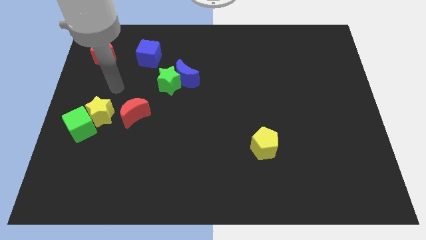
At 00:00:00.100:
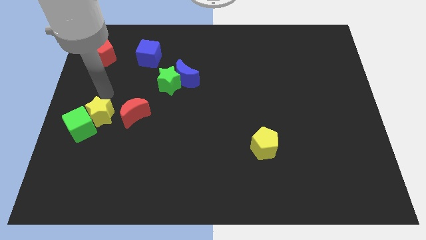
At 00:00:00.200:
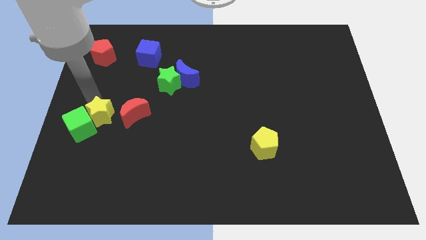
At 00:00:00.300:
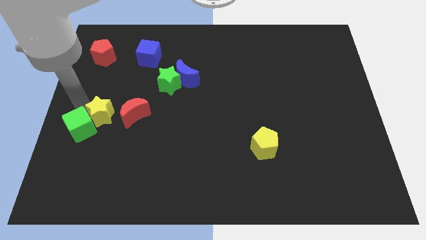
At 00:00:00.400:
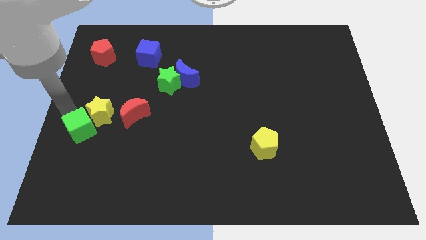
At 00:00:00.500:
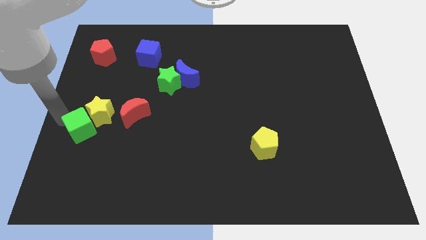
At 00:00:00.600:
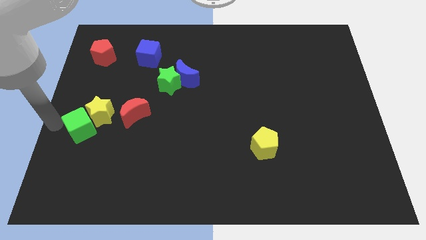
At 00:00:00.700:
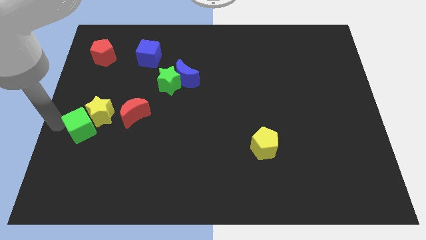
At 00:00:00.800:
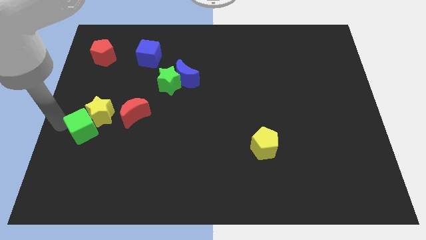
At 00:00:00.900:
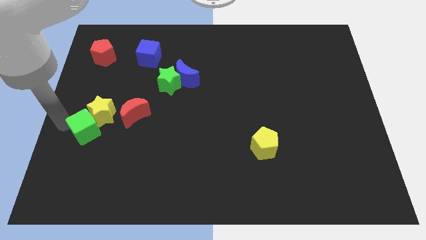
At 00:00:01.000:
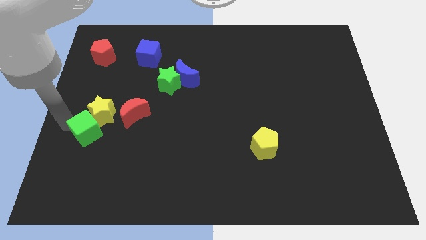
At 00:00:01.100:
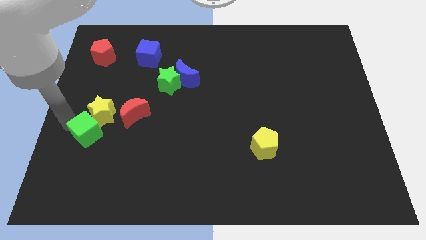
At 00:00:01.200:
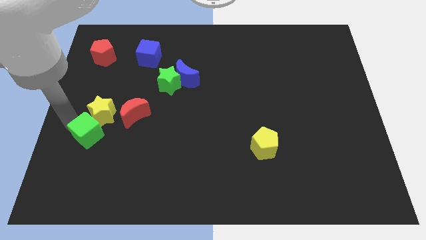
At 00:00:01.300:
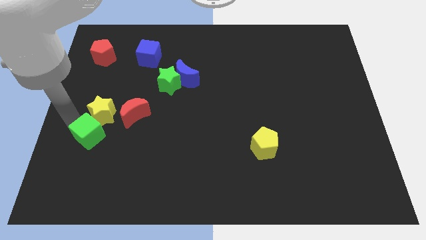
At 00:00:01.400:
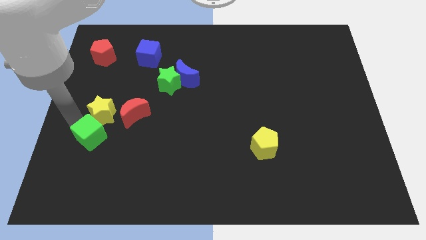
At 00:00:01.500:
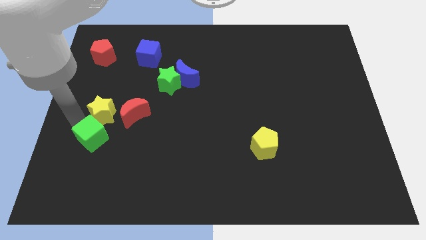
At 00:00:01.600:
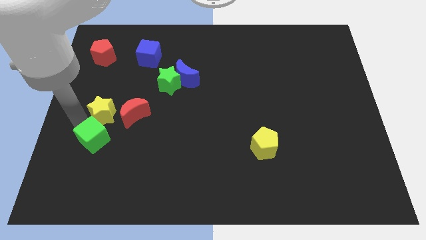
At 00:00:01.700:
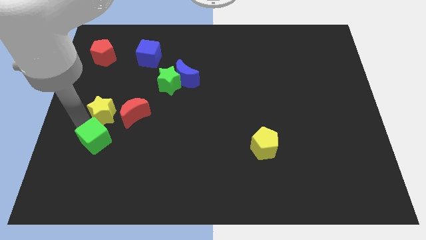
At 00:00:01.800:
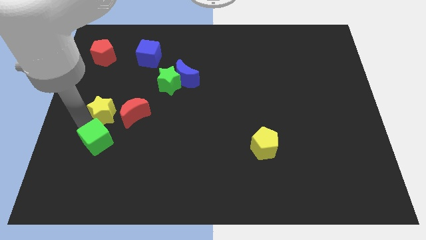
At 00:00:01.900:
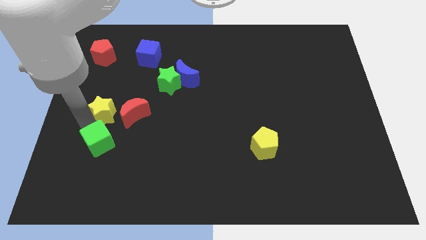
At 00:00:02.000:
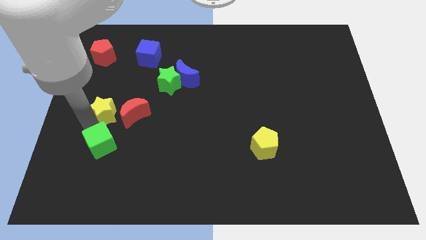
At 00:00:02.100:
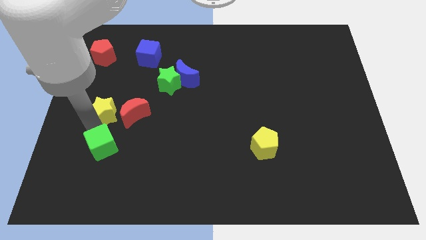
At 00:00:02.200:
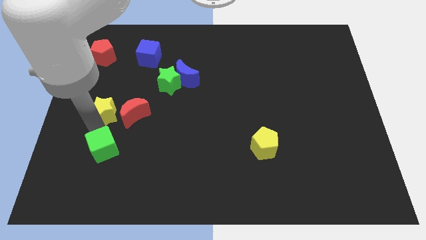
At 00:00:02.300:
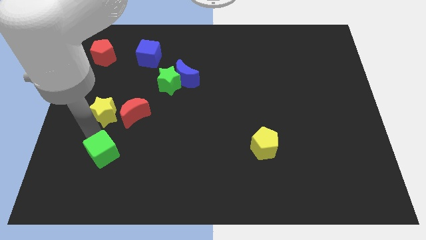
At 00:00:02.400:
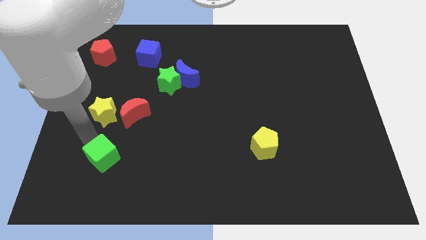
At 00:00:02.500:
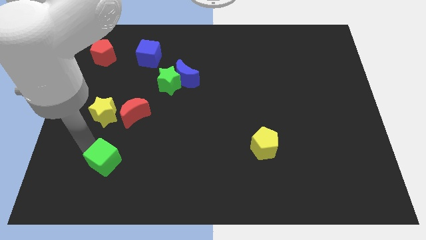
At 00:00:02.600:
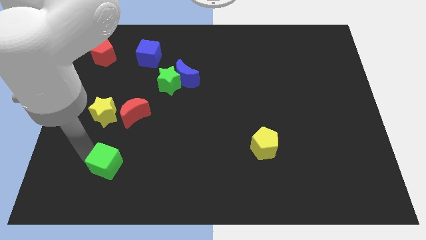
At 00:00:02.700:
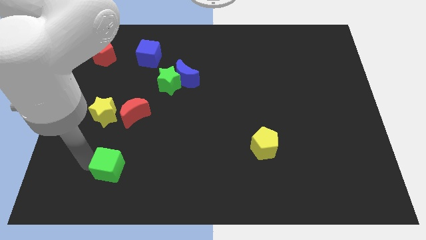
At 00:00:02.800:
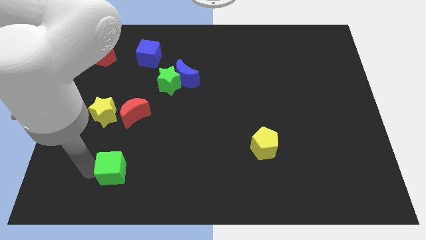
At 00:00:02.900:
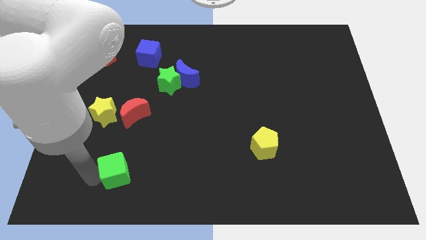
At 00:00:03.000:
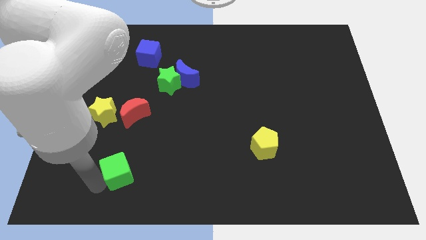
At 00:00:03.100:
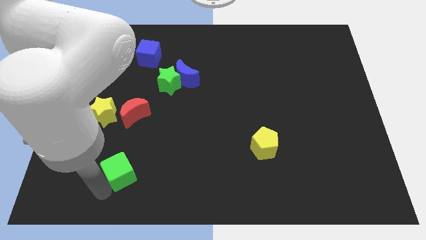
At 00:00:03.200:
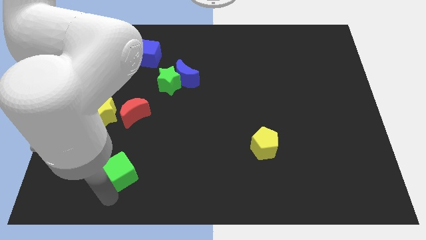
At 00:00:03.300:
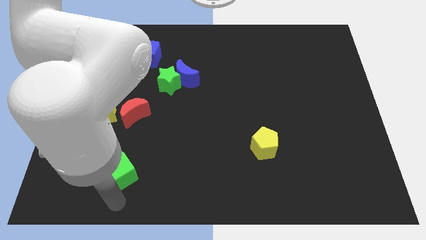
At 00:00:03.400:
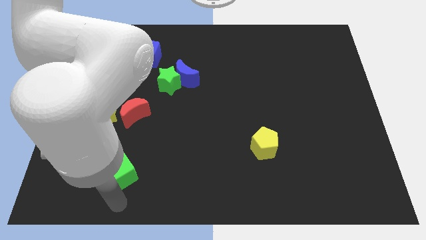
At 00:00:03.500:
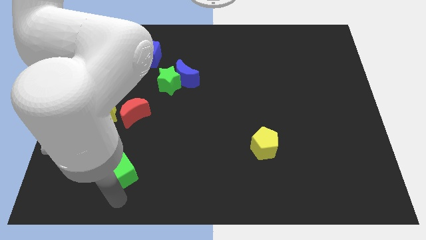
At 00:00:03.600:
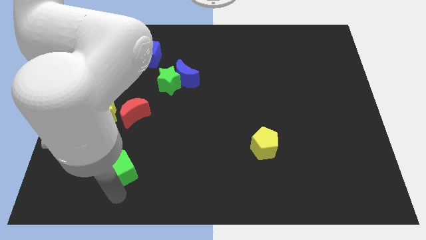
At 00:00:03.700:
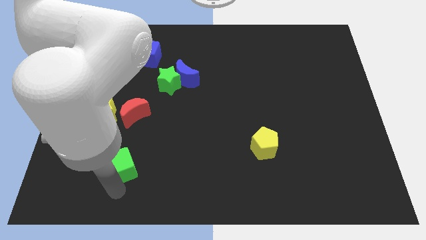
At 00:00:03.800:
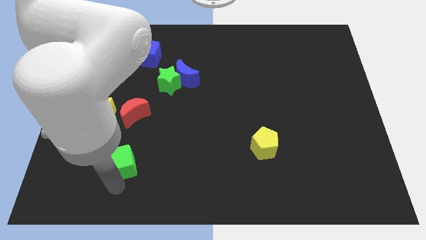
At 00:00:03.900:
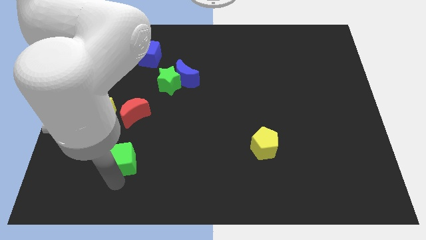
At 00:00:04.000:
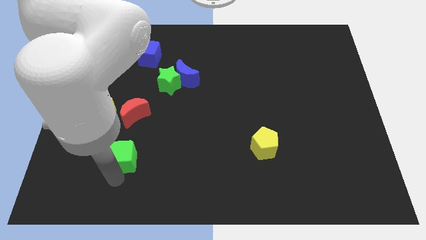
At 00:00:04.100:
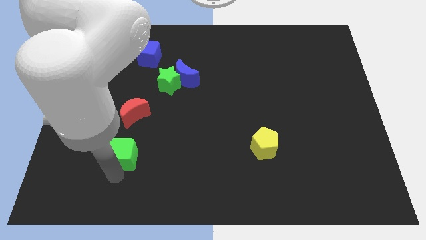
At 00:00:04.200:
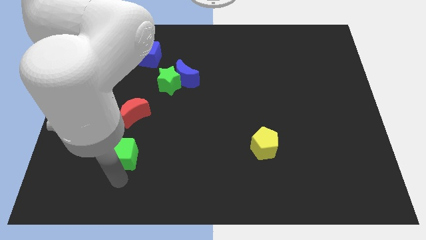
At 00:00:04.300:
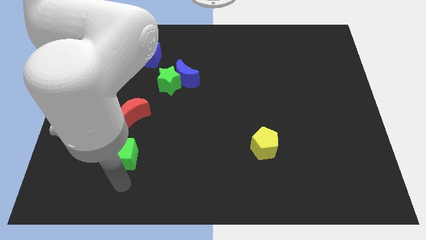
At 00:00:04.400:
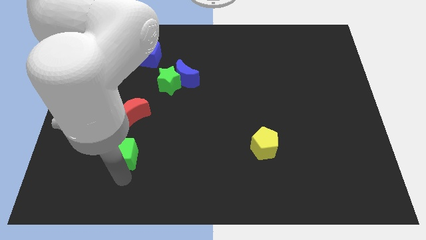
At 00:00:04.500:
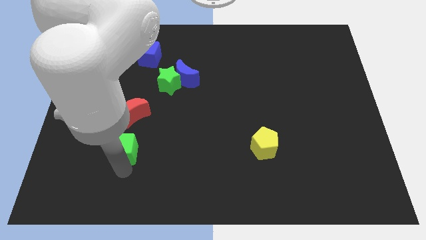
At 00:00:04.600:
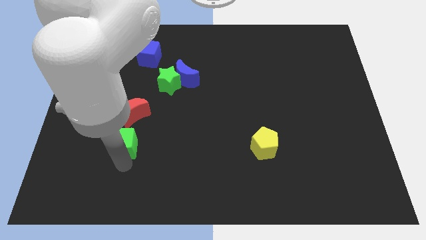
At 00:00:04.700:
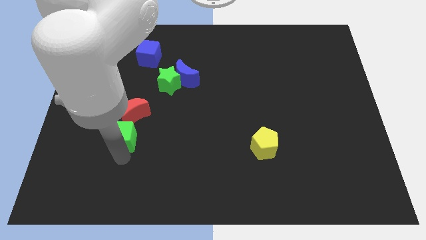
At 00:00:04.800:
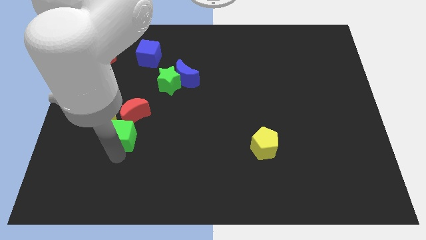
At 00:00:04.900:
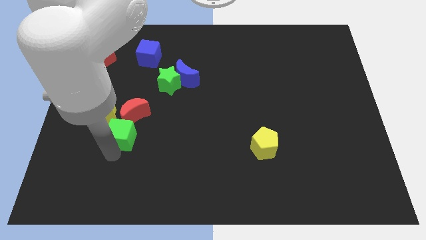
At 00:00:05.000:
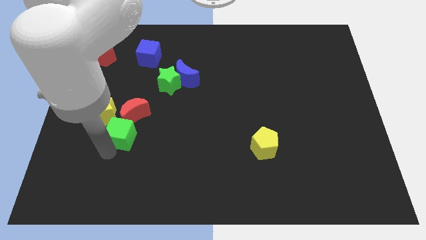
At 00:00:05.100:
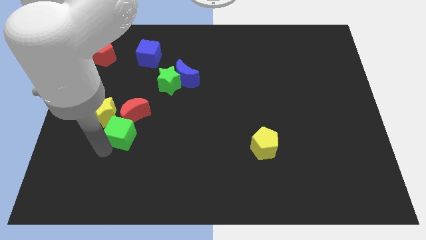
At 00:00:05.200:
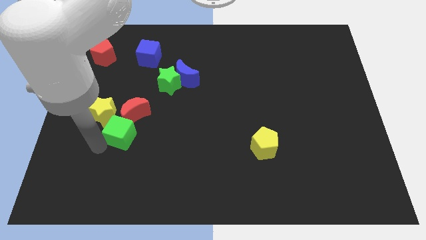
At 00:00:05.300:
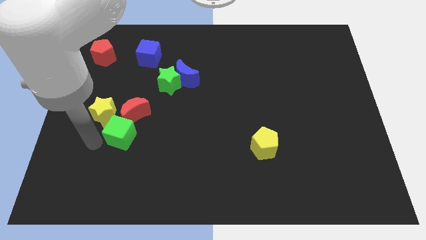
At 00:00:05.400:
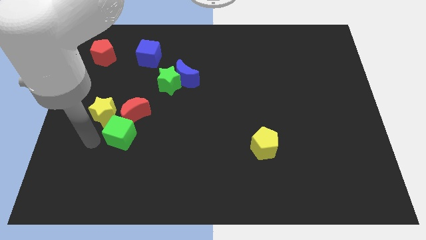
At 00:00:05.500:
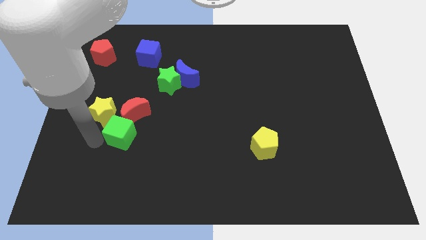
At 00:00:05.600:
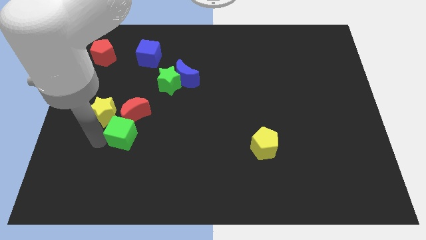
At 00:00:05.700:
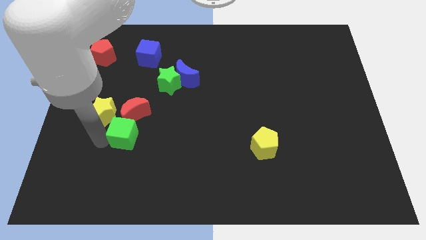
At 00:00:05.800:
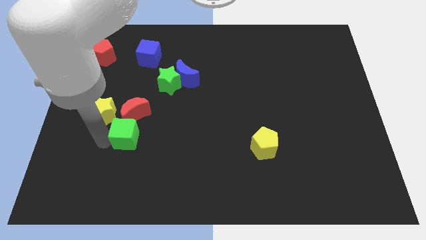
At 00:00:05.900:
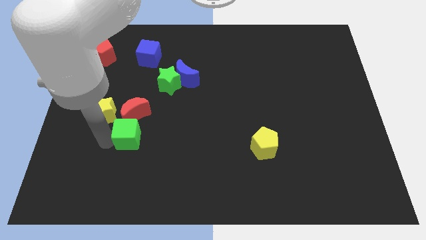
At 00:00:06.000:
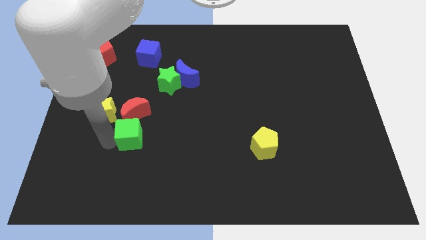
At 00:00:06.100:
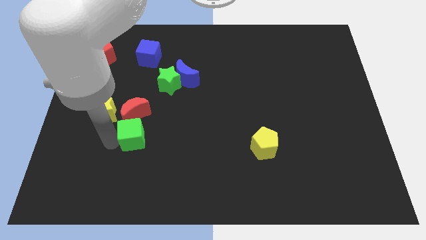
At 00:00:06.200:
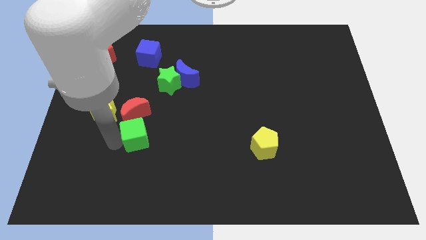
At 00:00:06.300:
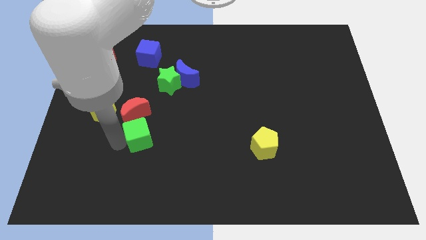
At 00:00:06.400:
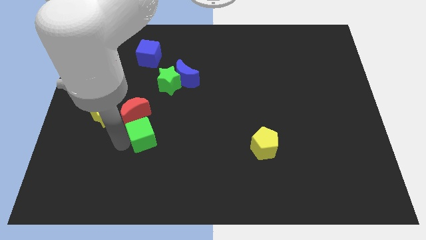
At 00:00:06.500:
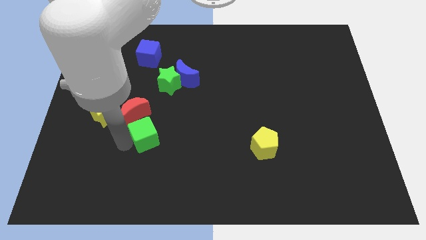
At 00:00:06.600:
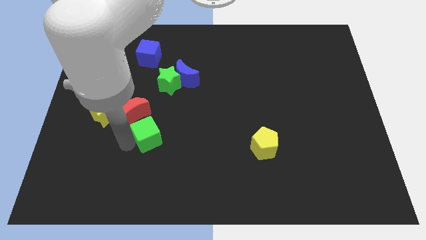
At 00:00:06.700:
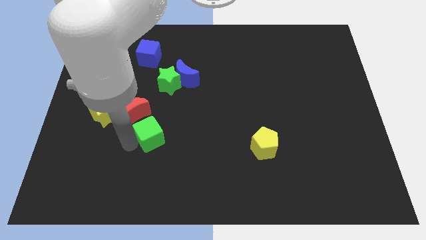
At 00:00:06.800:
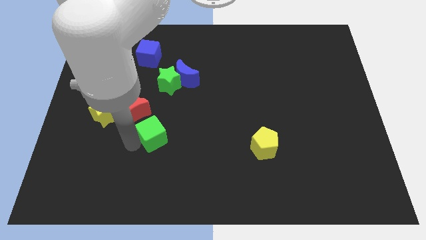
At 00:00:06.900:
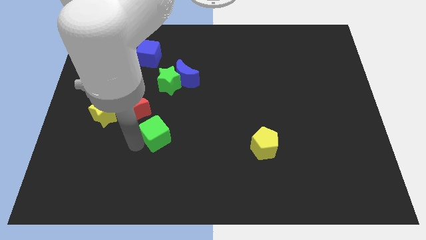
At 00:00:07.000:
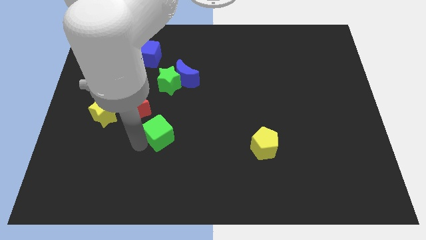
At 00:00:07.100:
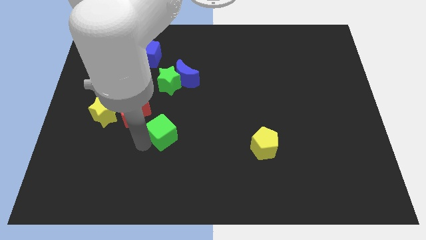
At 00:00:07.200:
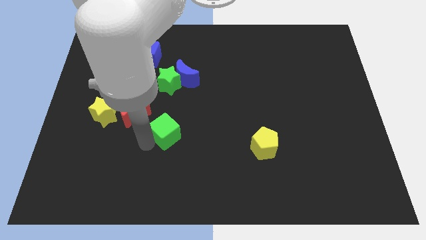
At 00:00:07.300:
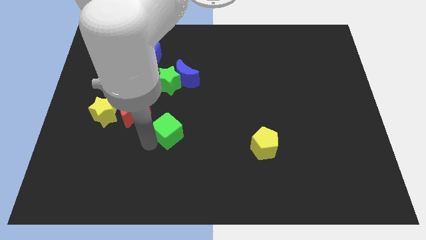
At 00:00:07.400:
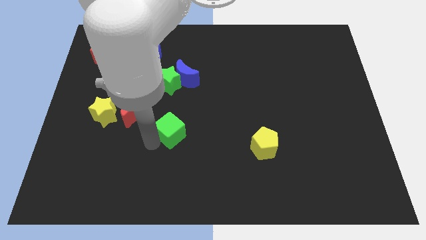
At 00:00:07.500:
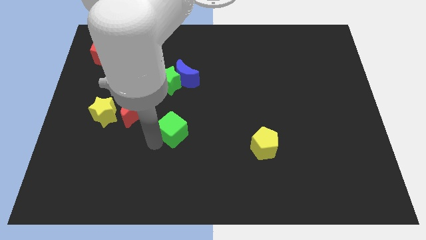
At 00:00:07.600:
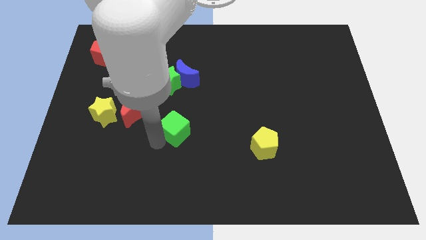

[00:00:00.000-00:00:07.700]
slide the green cube to the middle
